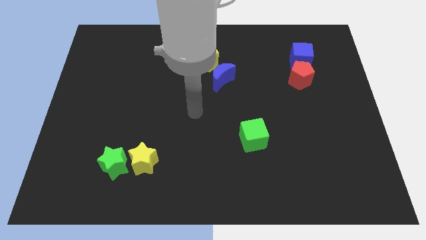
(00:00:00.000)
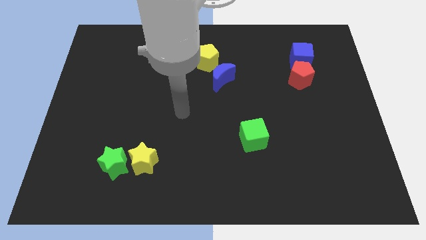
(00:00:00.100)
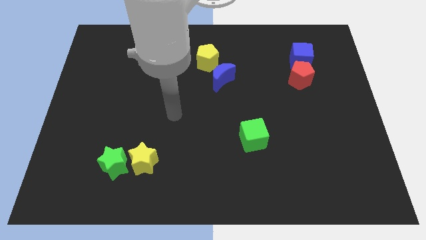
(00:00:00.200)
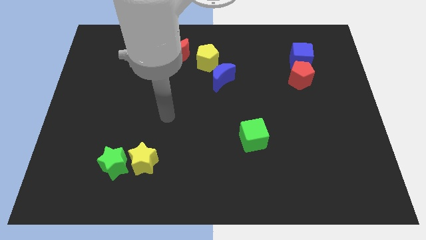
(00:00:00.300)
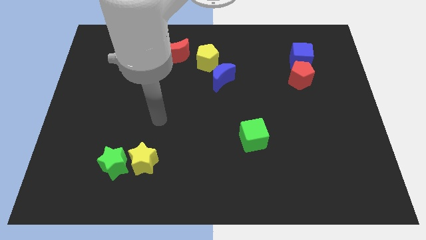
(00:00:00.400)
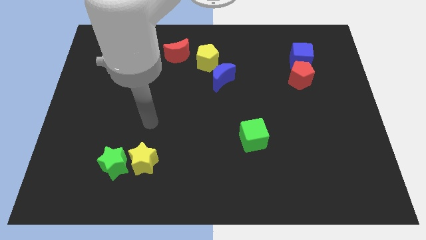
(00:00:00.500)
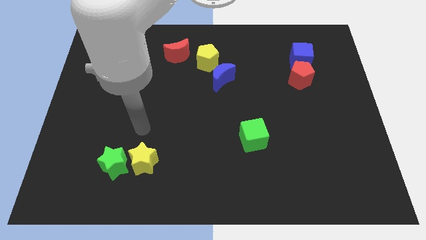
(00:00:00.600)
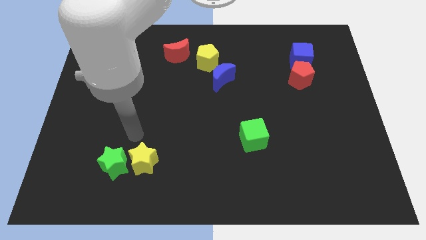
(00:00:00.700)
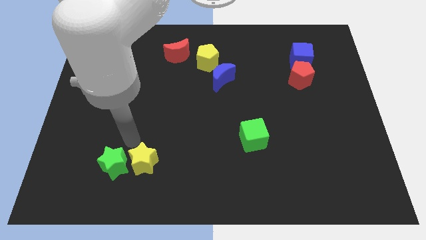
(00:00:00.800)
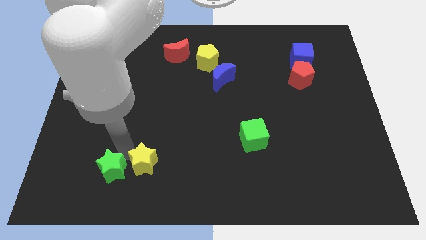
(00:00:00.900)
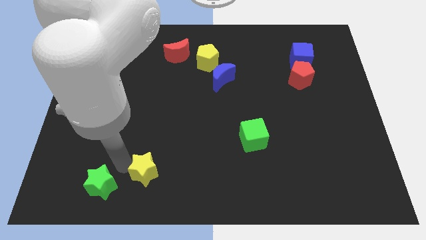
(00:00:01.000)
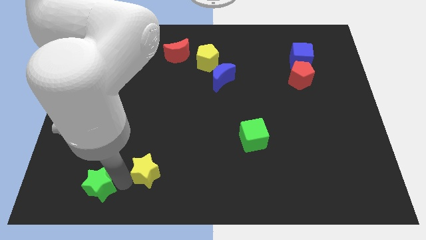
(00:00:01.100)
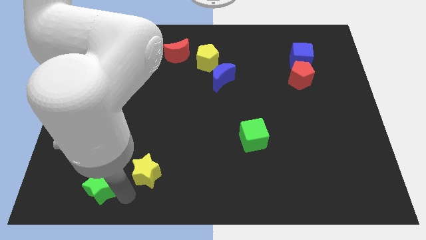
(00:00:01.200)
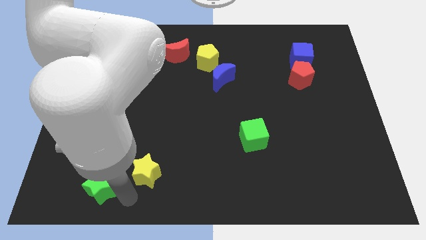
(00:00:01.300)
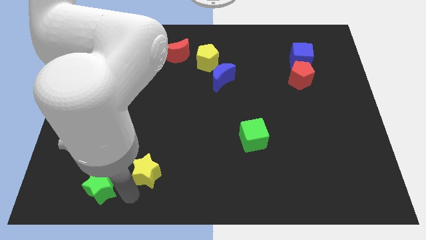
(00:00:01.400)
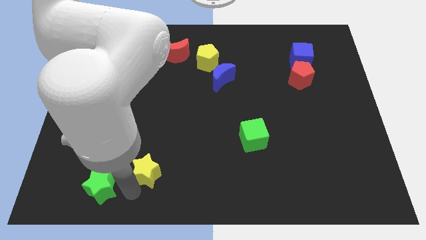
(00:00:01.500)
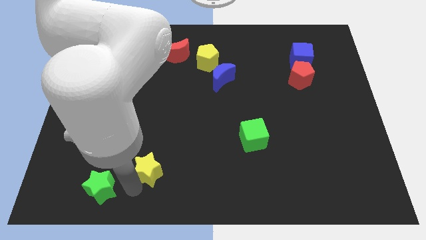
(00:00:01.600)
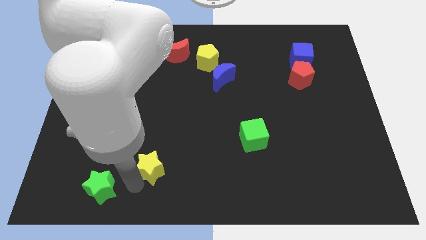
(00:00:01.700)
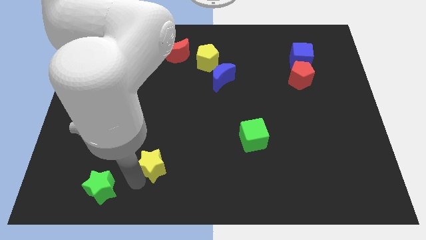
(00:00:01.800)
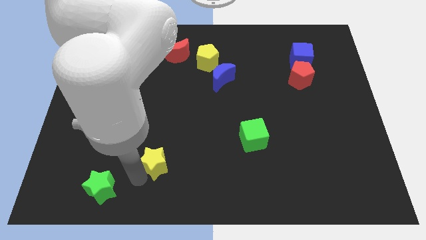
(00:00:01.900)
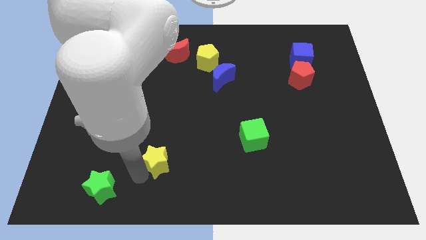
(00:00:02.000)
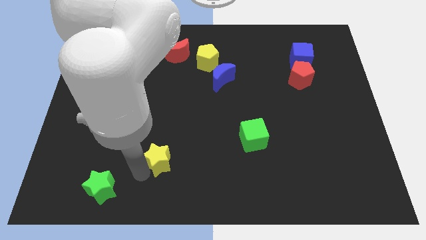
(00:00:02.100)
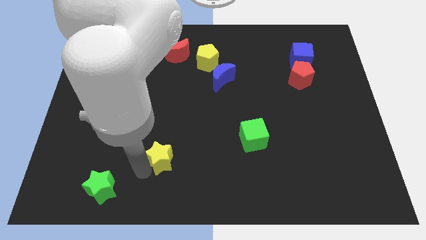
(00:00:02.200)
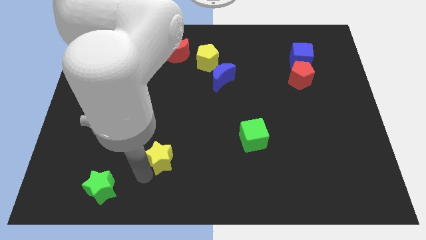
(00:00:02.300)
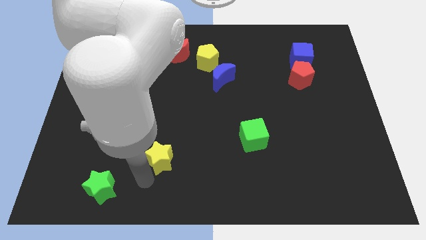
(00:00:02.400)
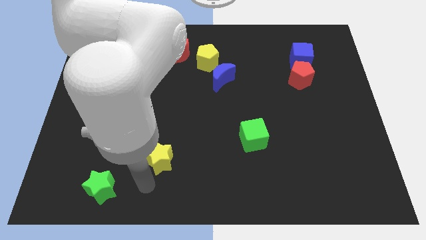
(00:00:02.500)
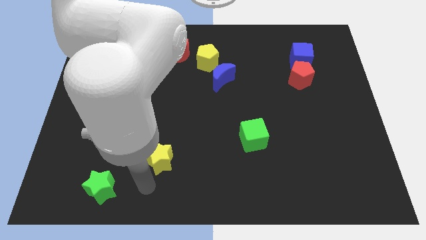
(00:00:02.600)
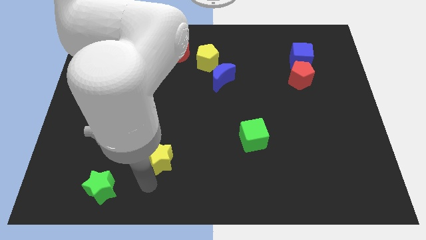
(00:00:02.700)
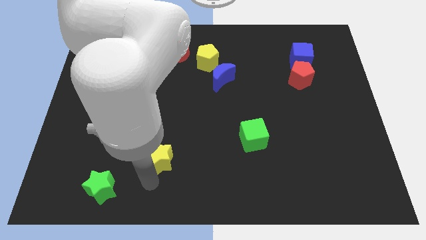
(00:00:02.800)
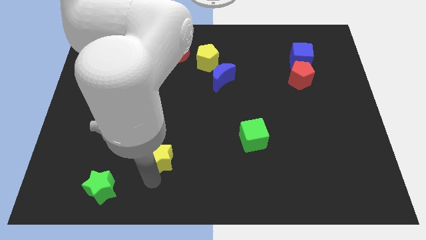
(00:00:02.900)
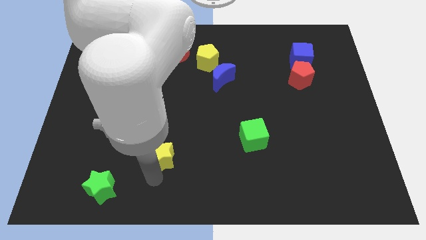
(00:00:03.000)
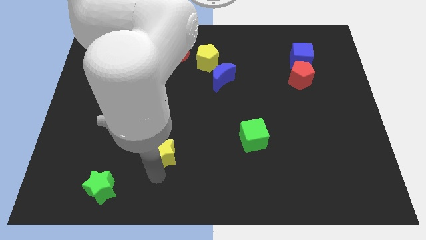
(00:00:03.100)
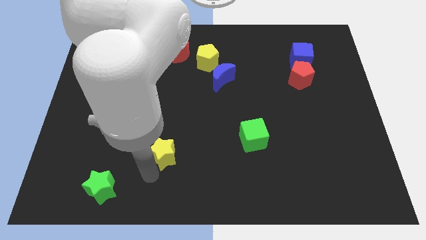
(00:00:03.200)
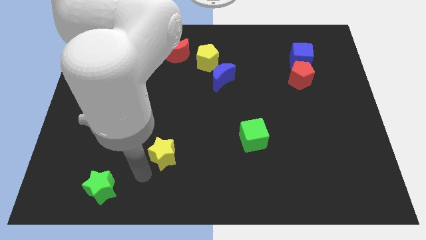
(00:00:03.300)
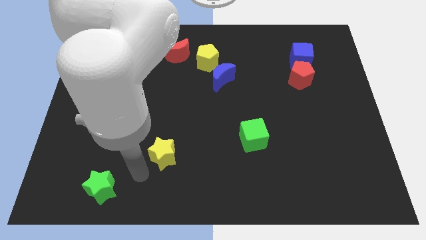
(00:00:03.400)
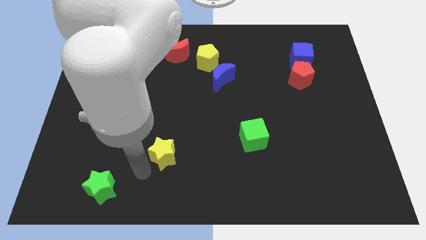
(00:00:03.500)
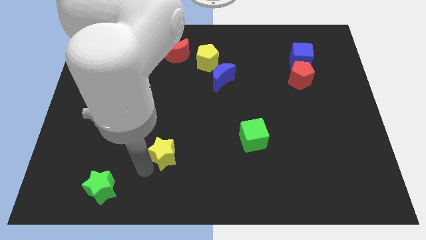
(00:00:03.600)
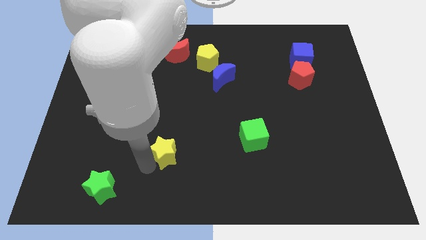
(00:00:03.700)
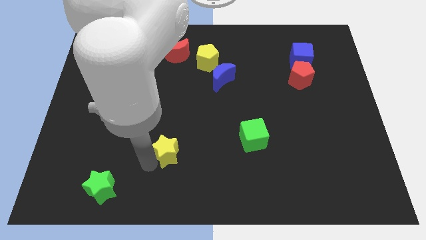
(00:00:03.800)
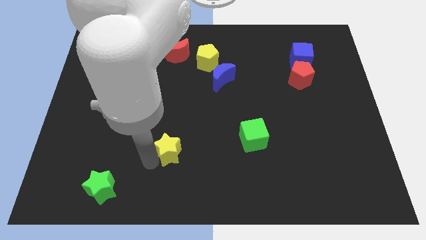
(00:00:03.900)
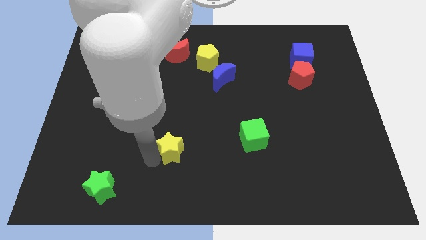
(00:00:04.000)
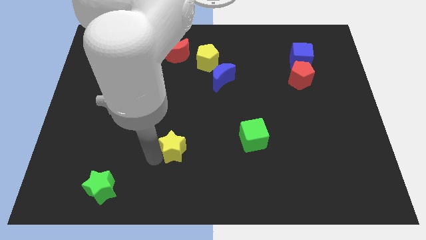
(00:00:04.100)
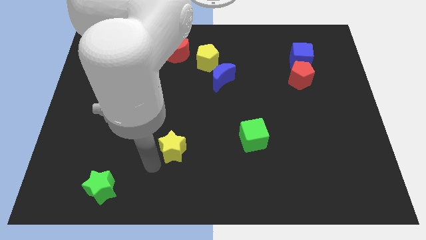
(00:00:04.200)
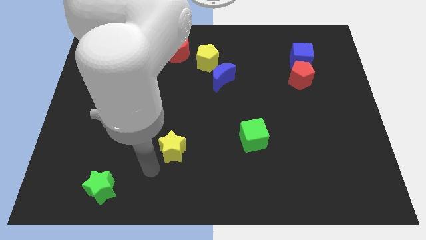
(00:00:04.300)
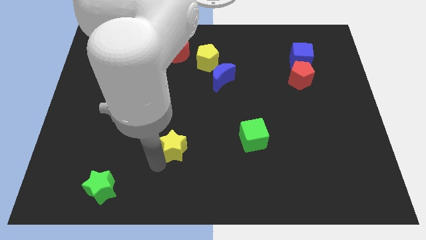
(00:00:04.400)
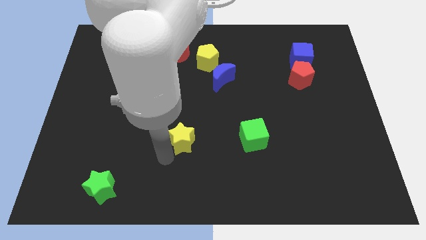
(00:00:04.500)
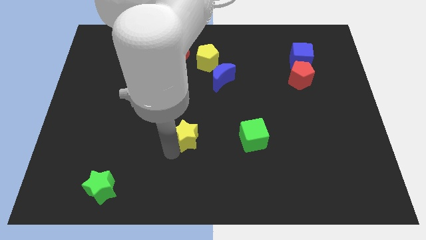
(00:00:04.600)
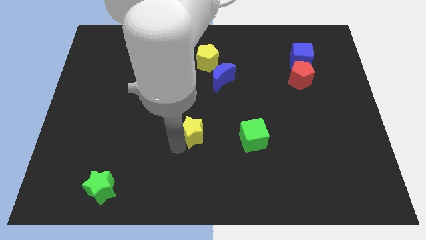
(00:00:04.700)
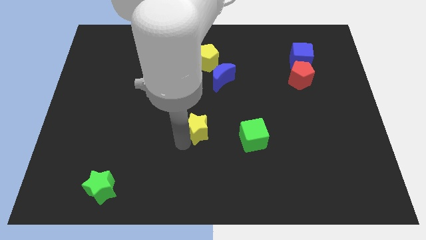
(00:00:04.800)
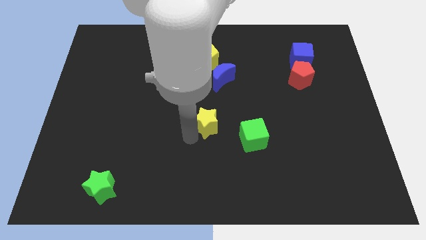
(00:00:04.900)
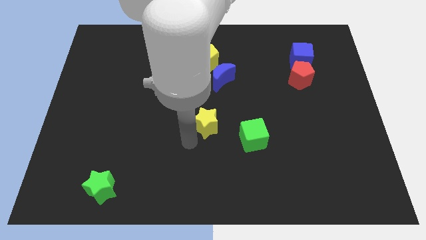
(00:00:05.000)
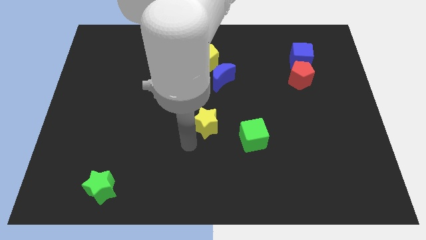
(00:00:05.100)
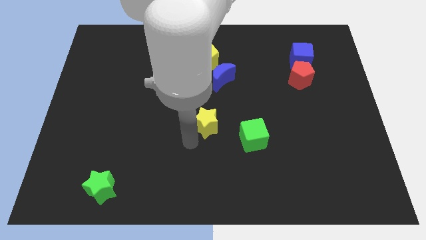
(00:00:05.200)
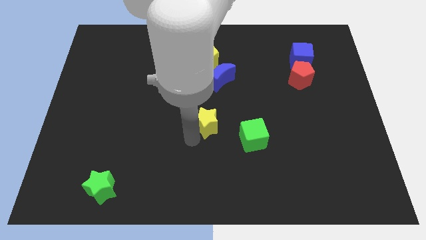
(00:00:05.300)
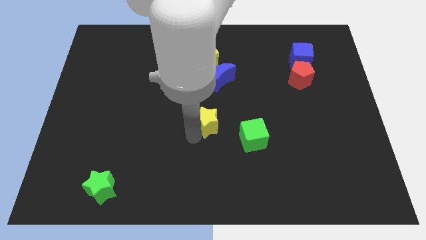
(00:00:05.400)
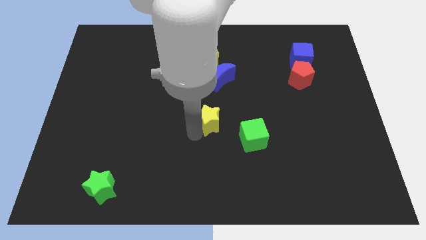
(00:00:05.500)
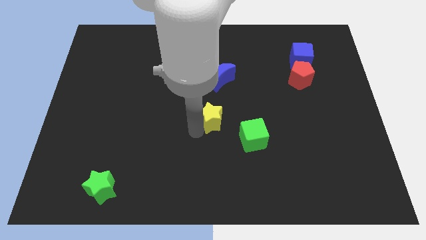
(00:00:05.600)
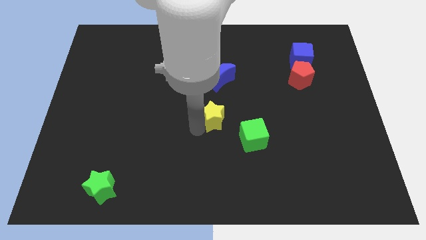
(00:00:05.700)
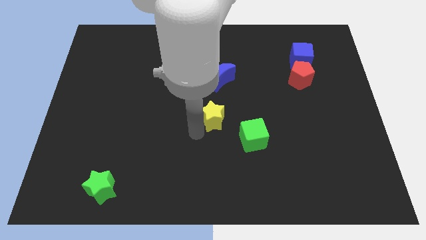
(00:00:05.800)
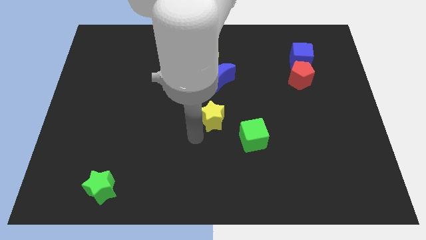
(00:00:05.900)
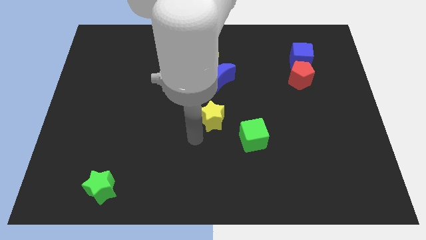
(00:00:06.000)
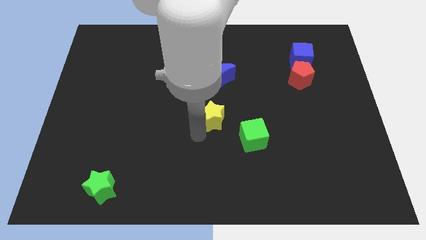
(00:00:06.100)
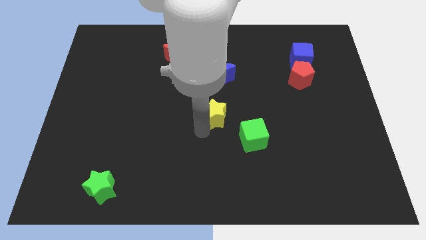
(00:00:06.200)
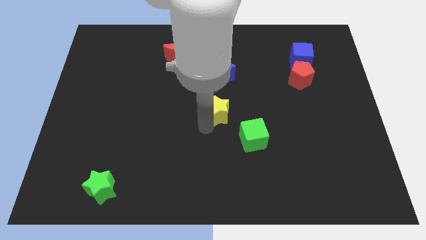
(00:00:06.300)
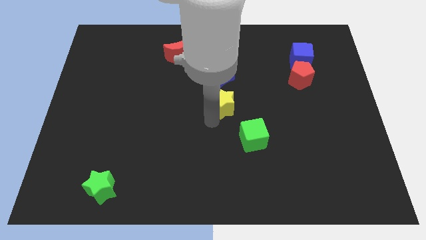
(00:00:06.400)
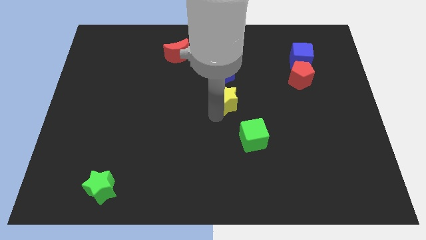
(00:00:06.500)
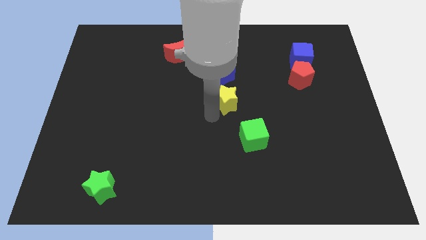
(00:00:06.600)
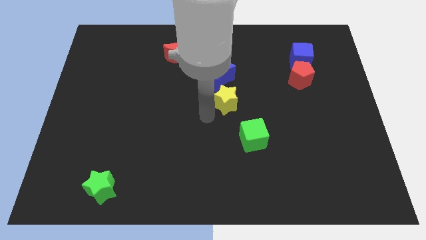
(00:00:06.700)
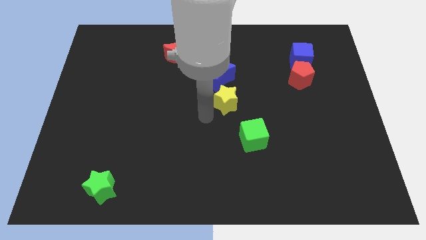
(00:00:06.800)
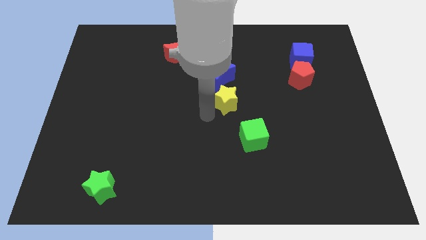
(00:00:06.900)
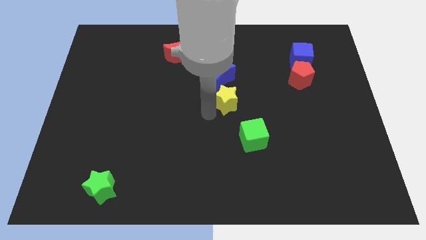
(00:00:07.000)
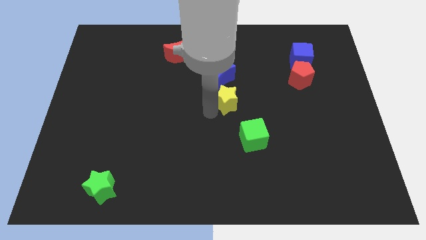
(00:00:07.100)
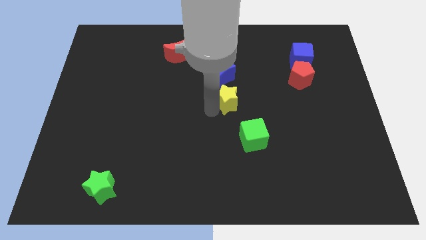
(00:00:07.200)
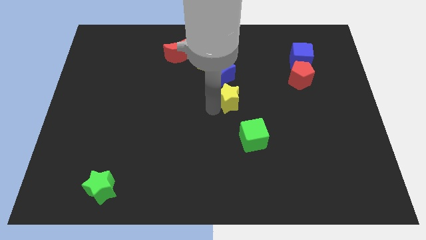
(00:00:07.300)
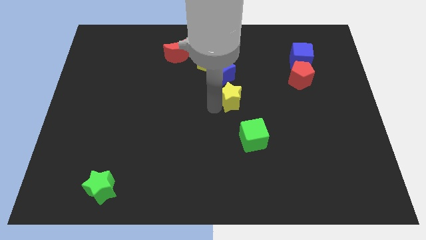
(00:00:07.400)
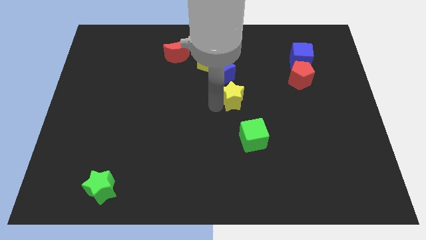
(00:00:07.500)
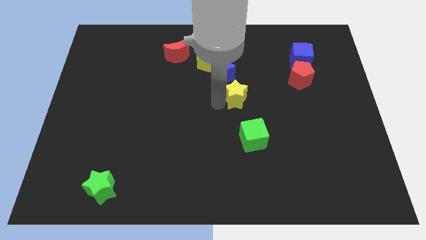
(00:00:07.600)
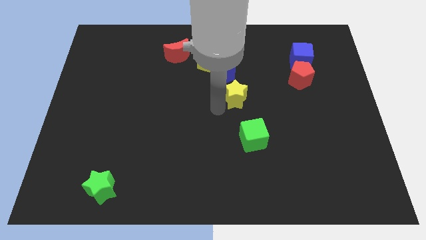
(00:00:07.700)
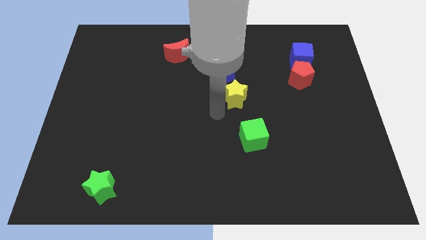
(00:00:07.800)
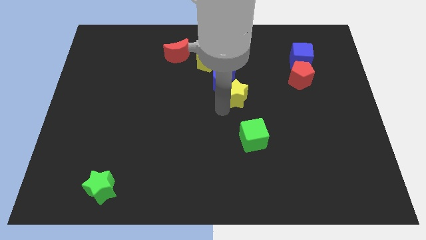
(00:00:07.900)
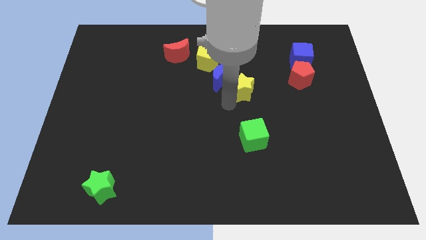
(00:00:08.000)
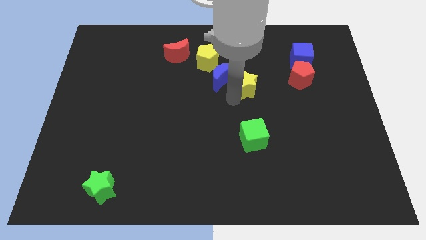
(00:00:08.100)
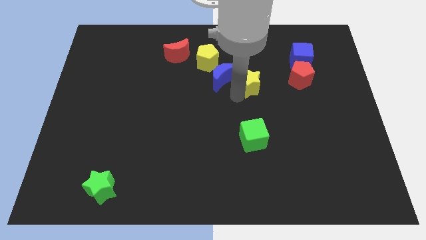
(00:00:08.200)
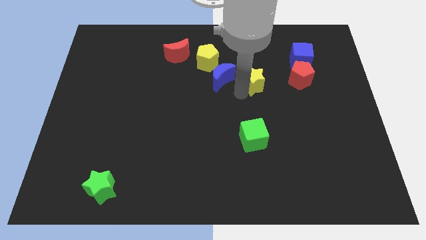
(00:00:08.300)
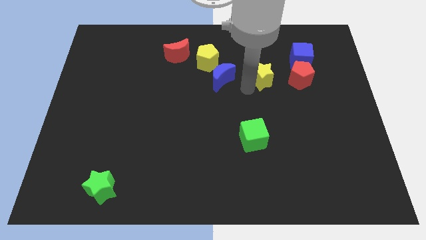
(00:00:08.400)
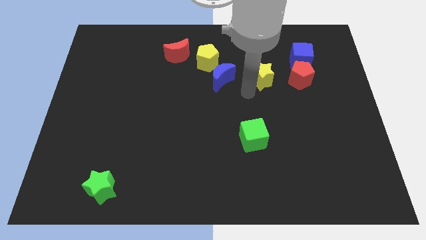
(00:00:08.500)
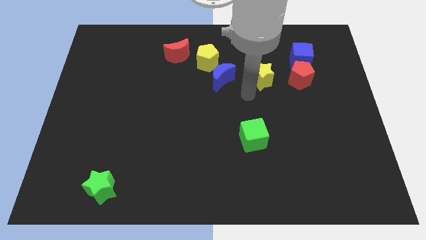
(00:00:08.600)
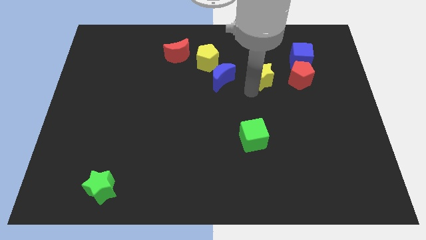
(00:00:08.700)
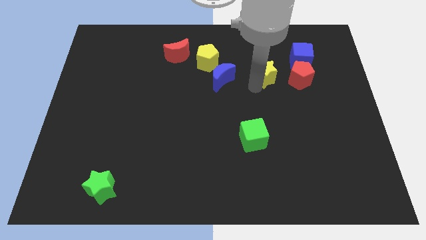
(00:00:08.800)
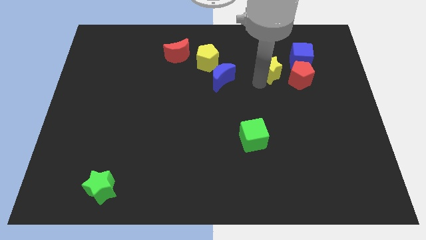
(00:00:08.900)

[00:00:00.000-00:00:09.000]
put the yellow star to the top left side of the red pentagon
